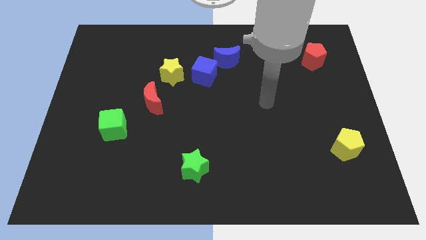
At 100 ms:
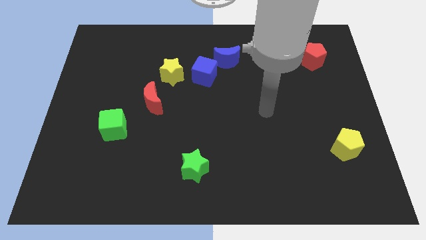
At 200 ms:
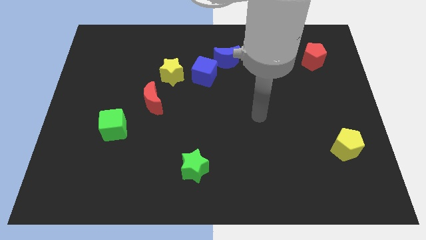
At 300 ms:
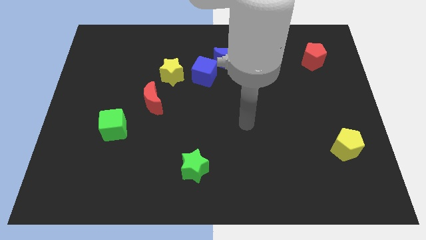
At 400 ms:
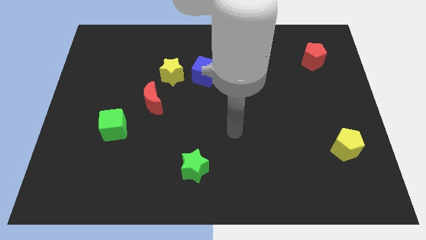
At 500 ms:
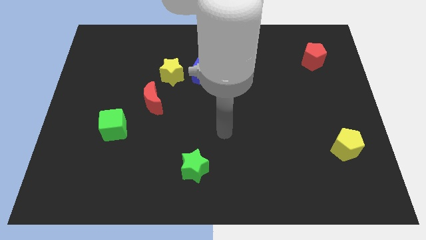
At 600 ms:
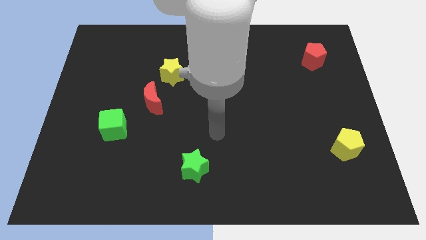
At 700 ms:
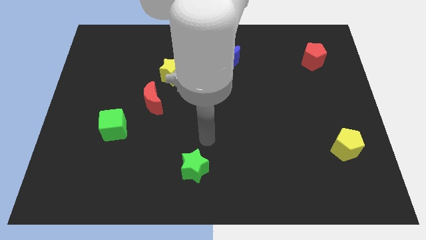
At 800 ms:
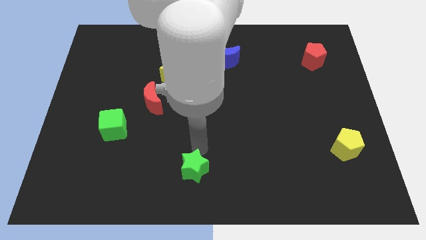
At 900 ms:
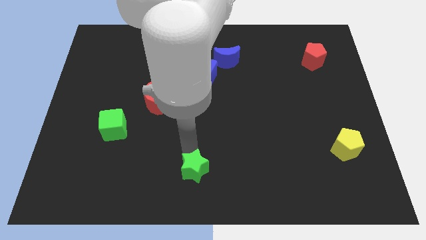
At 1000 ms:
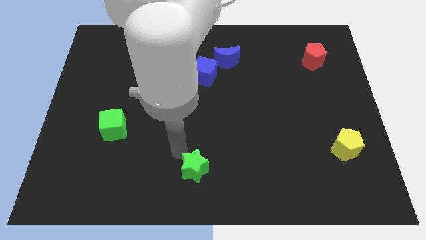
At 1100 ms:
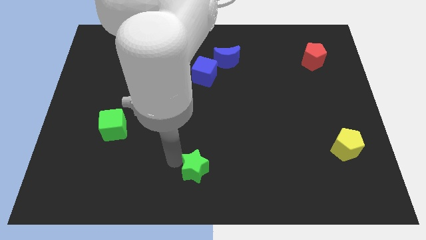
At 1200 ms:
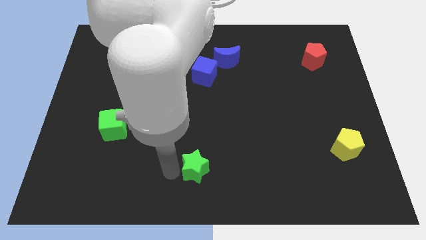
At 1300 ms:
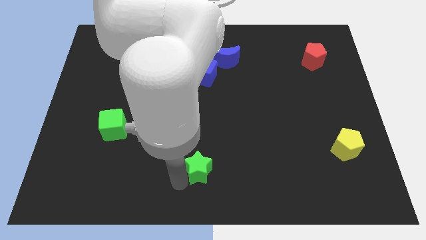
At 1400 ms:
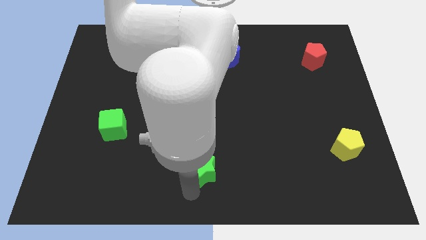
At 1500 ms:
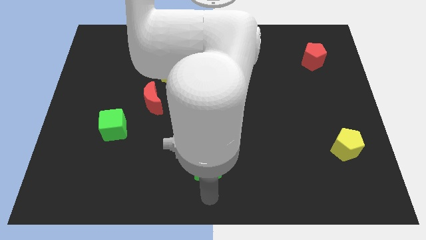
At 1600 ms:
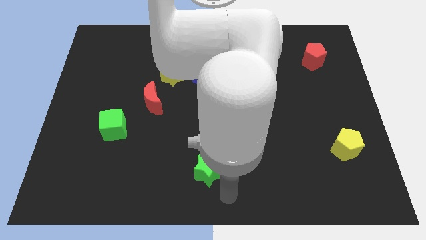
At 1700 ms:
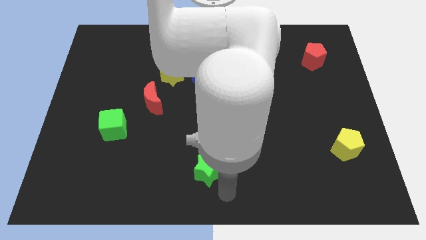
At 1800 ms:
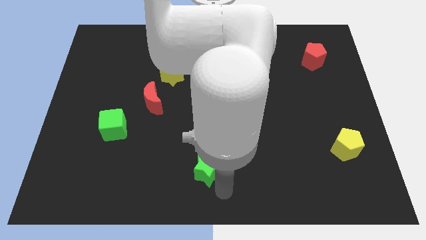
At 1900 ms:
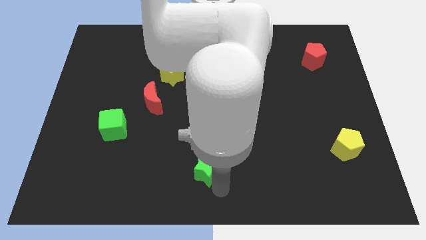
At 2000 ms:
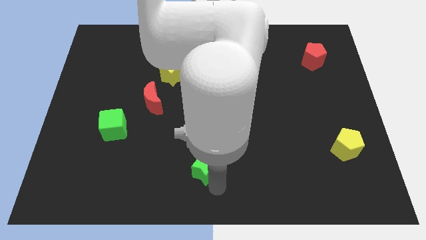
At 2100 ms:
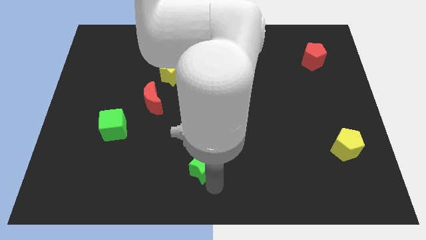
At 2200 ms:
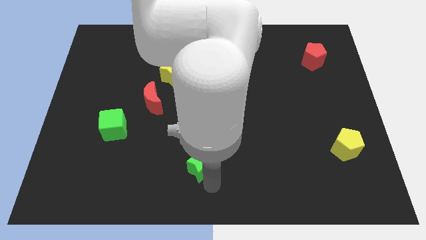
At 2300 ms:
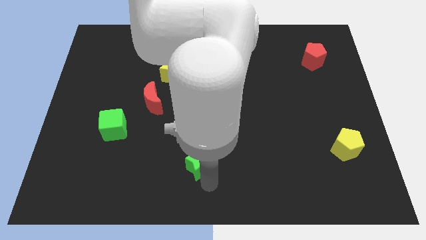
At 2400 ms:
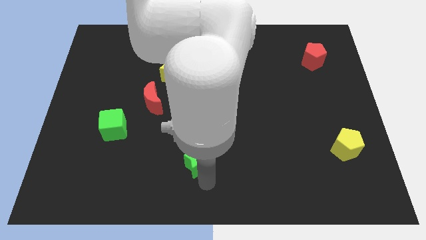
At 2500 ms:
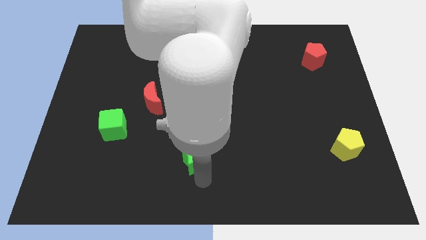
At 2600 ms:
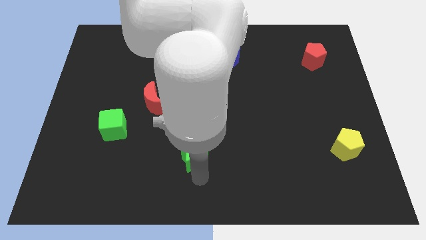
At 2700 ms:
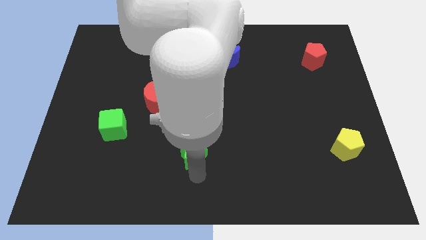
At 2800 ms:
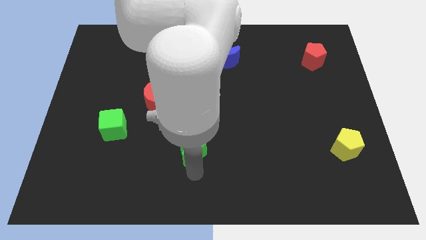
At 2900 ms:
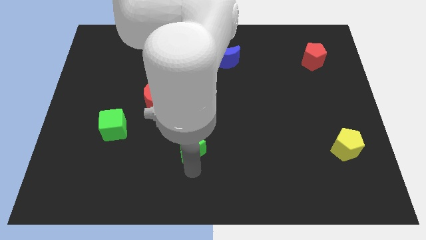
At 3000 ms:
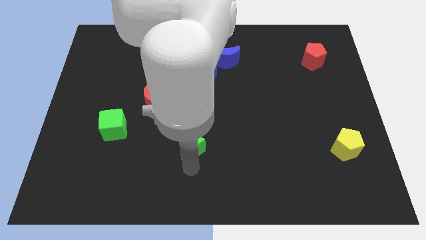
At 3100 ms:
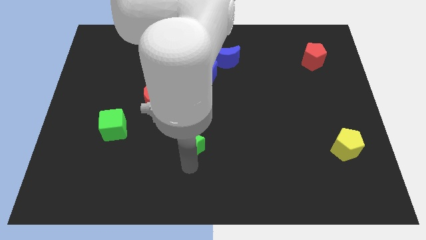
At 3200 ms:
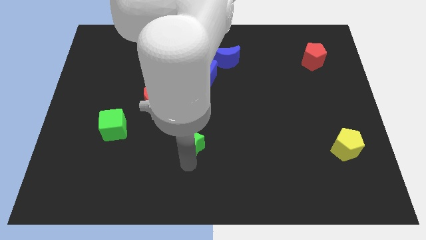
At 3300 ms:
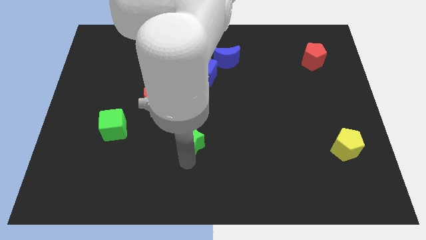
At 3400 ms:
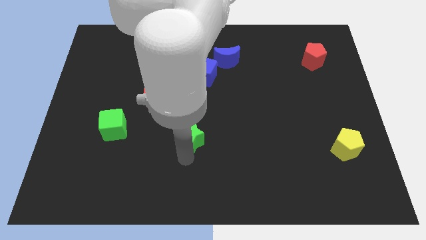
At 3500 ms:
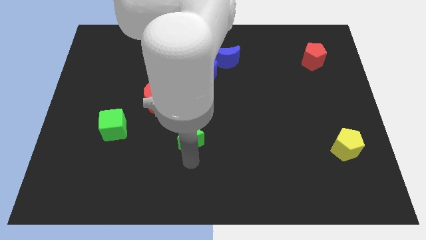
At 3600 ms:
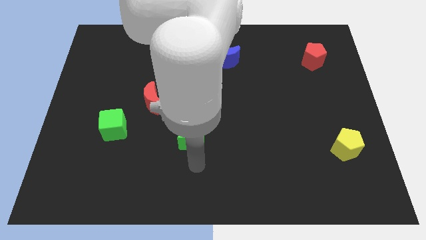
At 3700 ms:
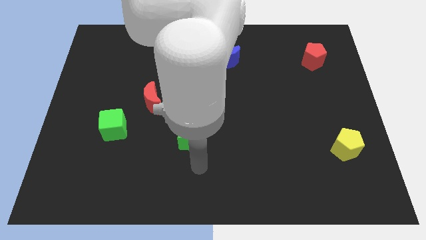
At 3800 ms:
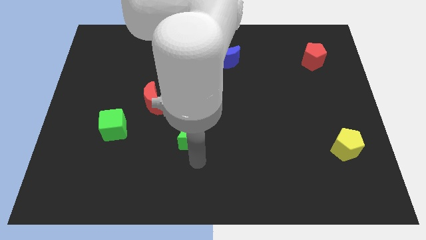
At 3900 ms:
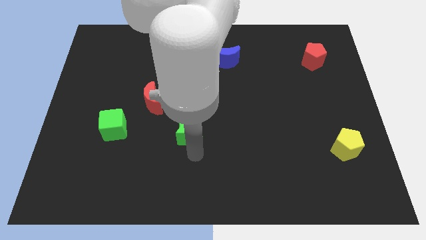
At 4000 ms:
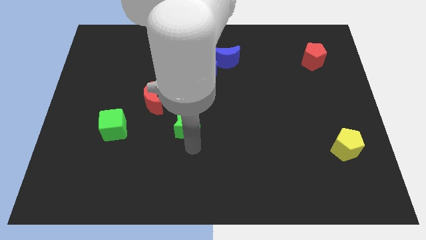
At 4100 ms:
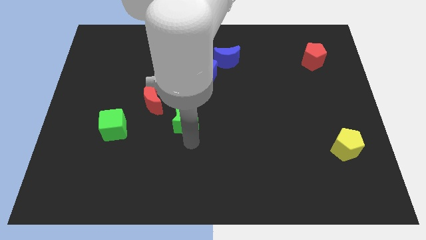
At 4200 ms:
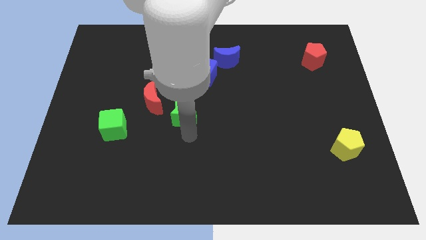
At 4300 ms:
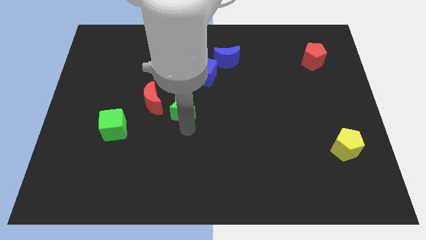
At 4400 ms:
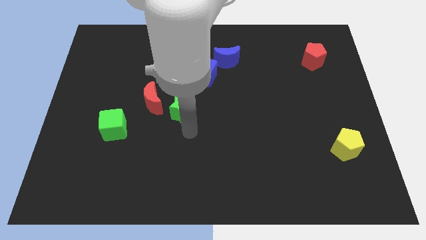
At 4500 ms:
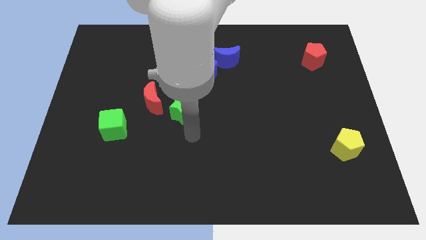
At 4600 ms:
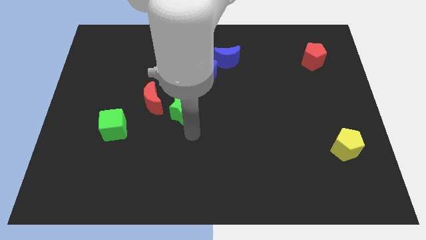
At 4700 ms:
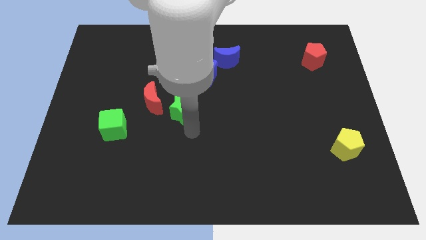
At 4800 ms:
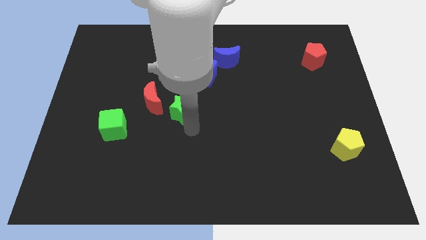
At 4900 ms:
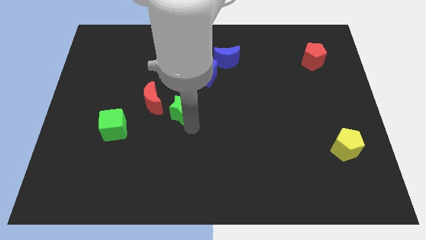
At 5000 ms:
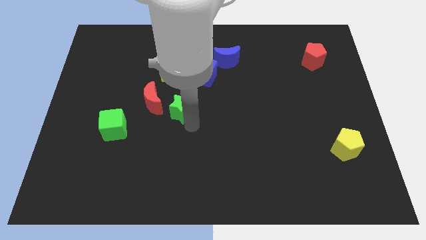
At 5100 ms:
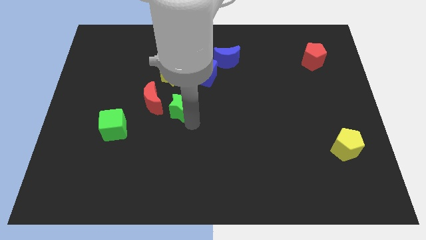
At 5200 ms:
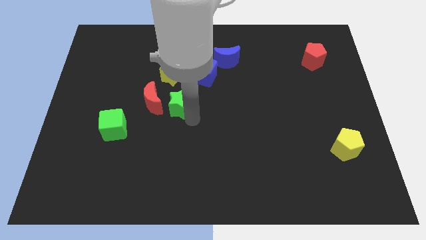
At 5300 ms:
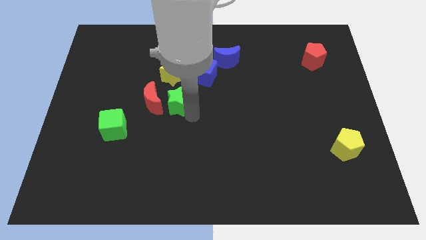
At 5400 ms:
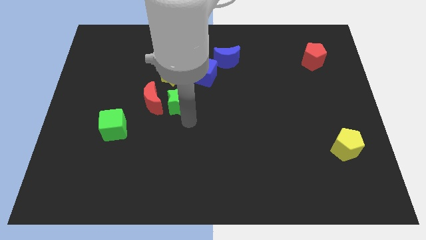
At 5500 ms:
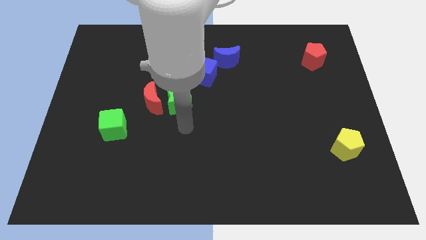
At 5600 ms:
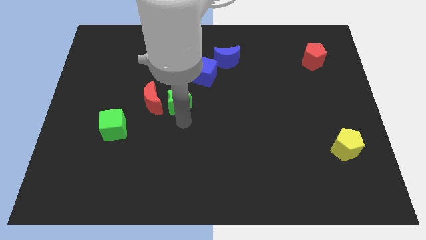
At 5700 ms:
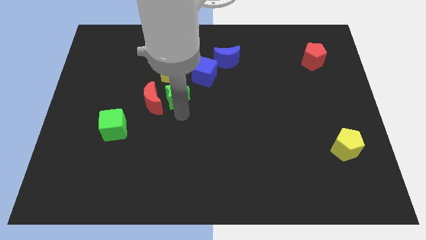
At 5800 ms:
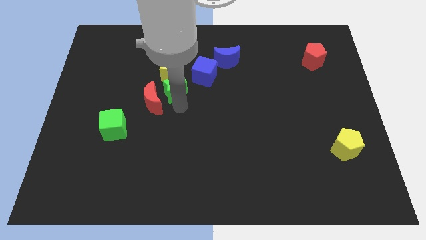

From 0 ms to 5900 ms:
put the green star next to the yellow star

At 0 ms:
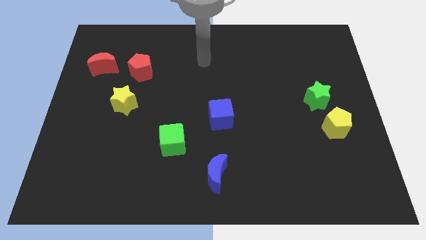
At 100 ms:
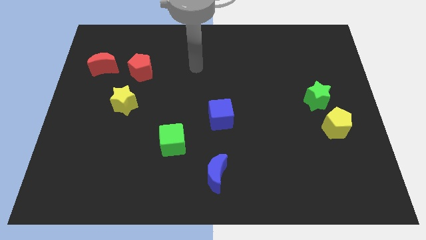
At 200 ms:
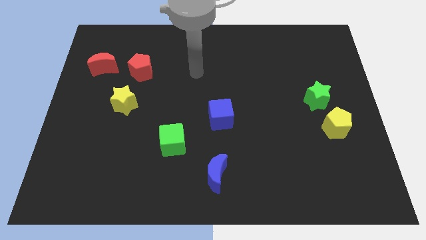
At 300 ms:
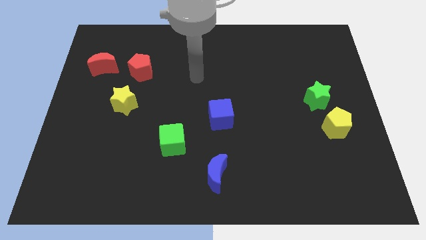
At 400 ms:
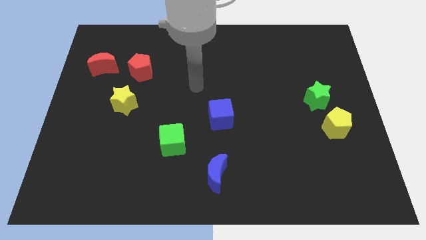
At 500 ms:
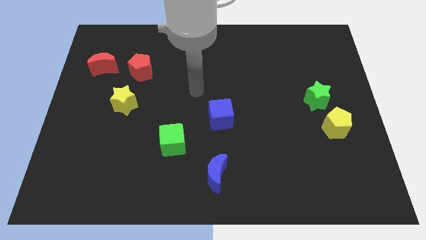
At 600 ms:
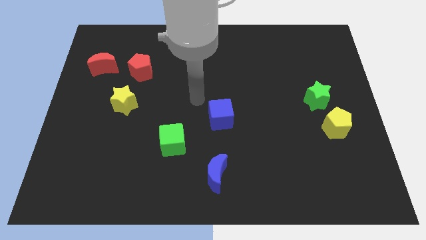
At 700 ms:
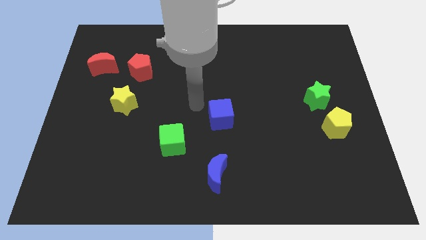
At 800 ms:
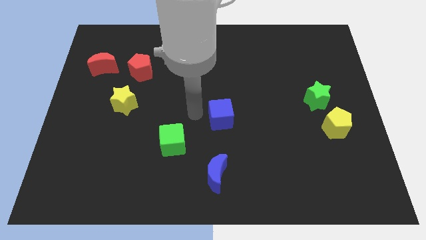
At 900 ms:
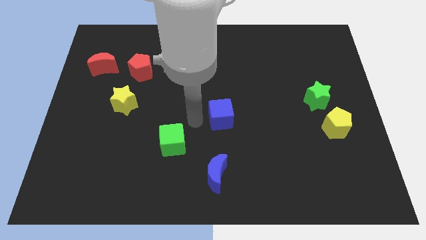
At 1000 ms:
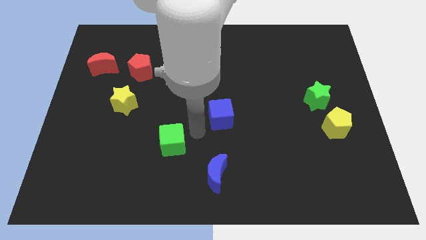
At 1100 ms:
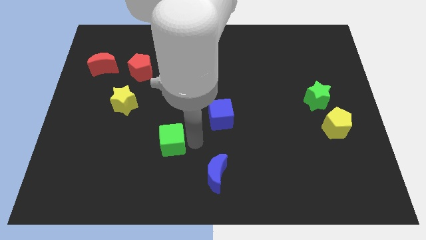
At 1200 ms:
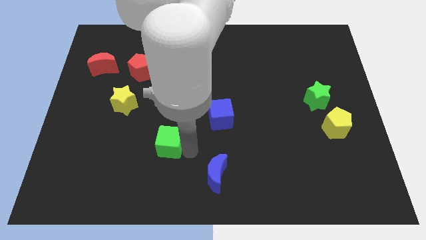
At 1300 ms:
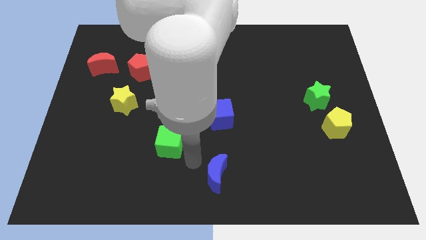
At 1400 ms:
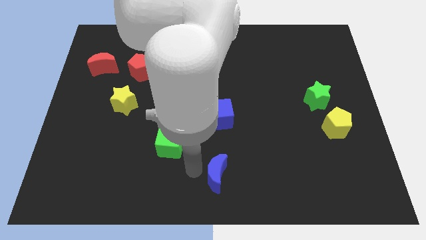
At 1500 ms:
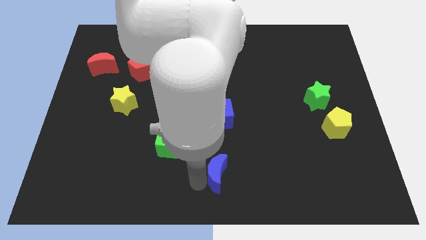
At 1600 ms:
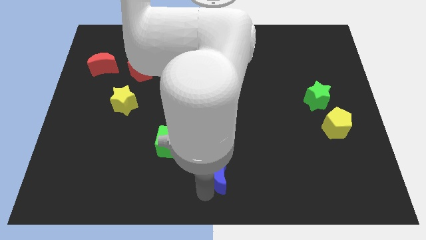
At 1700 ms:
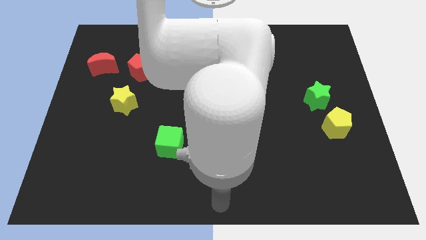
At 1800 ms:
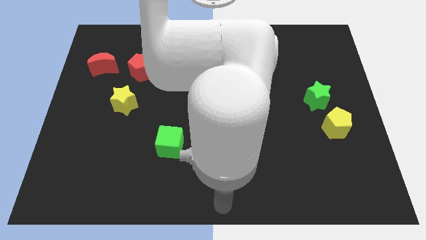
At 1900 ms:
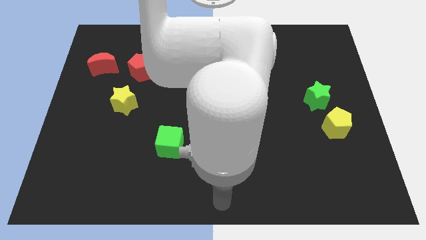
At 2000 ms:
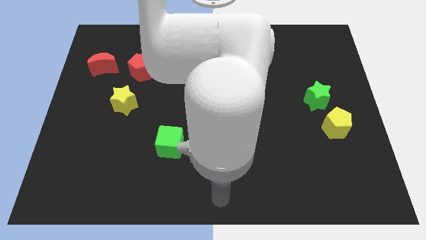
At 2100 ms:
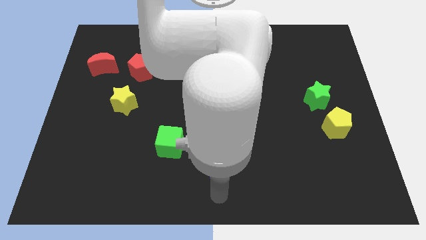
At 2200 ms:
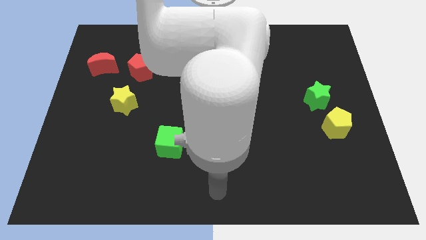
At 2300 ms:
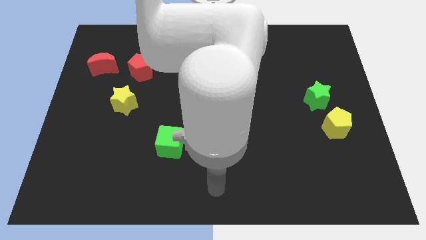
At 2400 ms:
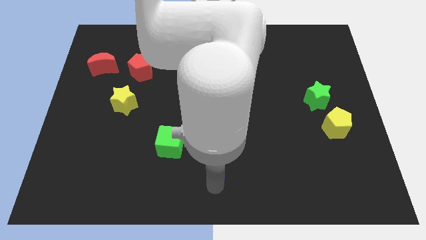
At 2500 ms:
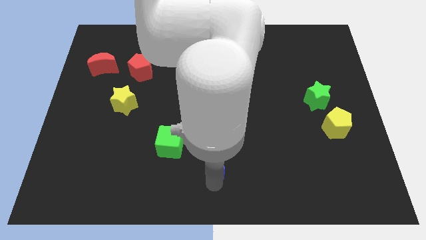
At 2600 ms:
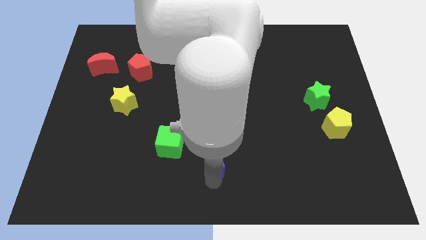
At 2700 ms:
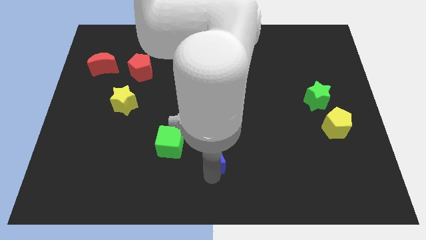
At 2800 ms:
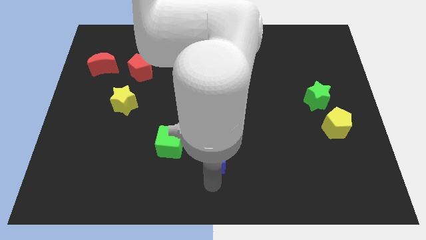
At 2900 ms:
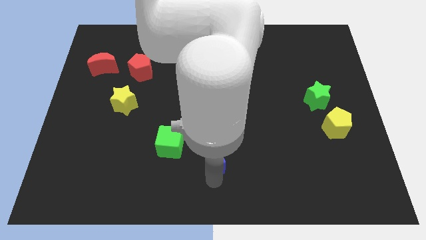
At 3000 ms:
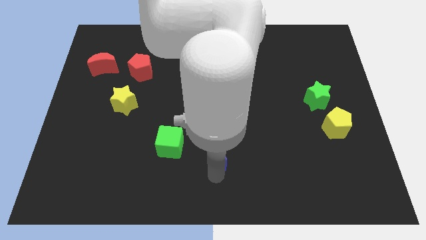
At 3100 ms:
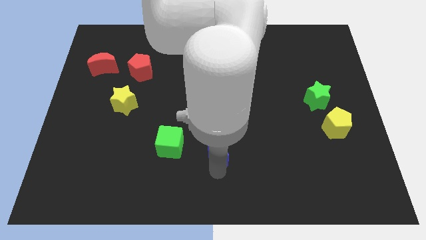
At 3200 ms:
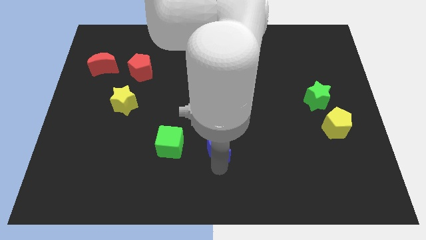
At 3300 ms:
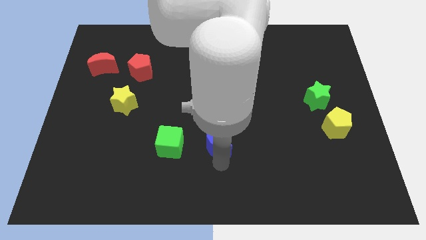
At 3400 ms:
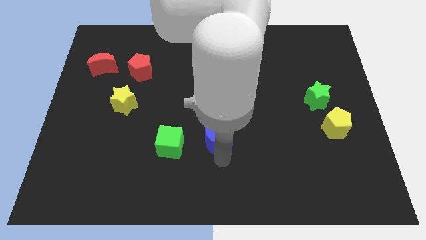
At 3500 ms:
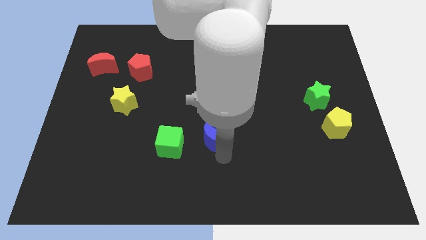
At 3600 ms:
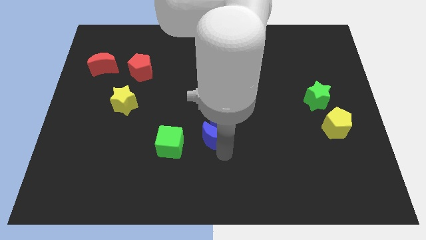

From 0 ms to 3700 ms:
push the blue moon next to the blue cube
